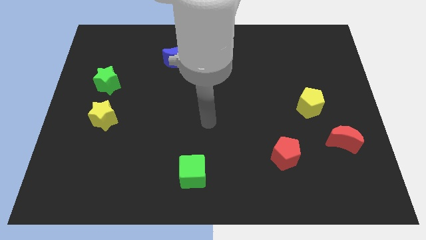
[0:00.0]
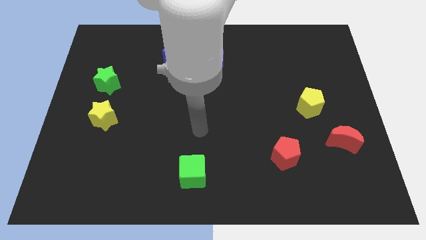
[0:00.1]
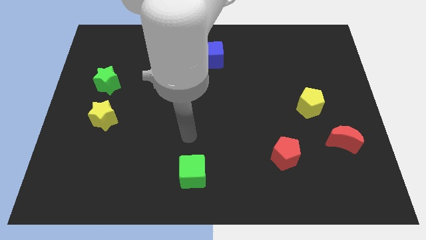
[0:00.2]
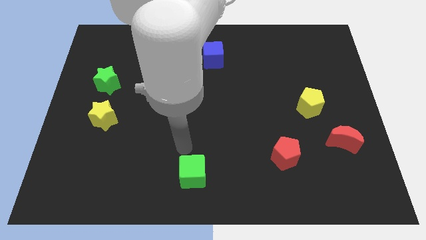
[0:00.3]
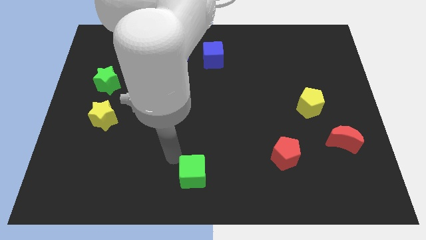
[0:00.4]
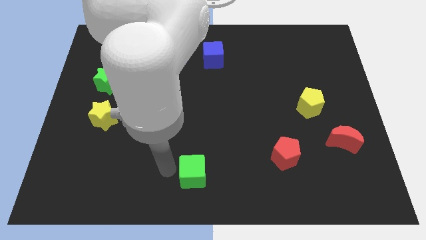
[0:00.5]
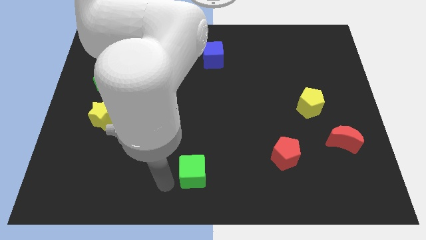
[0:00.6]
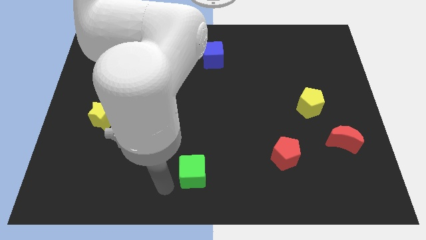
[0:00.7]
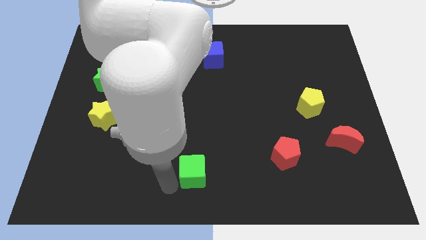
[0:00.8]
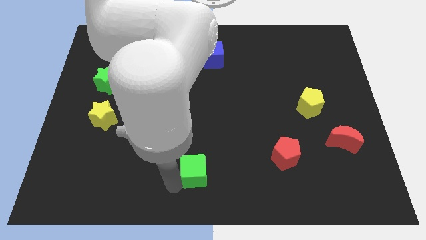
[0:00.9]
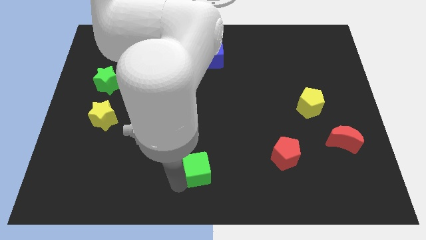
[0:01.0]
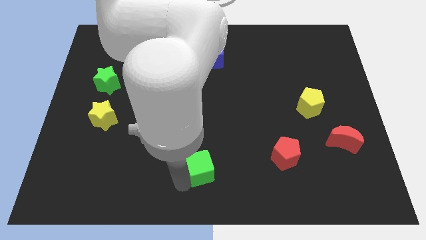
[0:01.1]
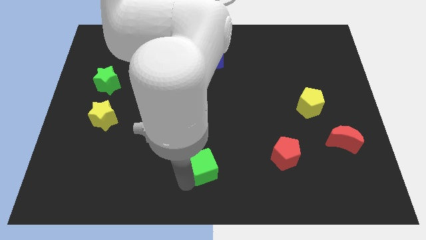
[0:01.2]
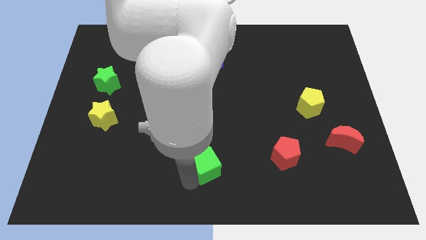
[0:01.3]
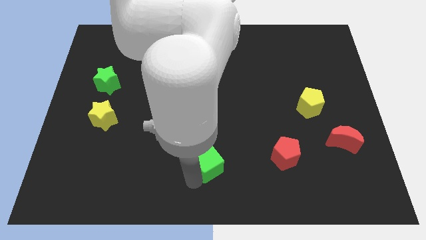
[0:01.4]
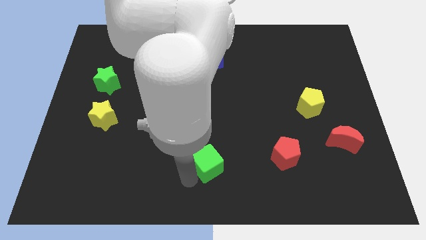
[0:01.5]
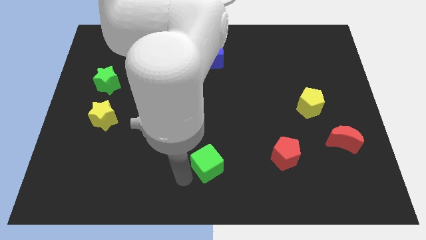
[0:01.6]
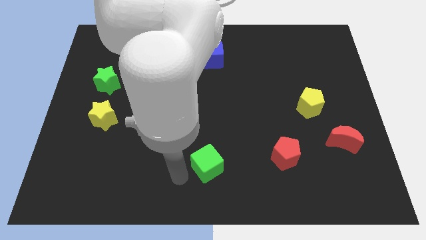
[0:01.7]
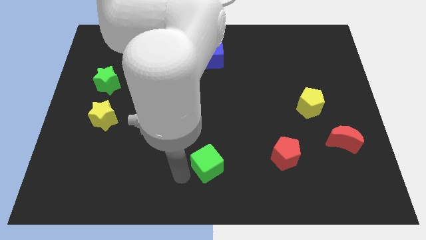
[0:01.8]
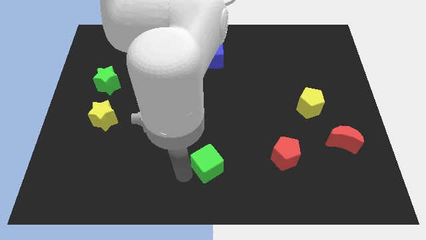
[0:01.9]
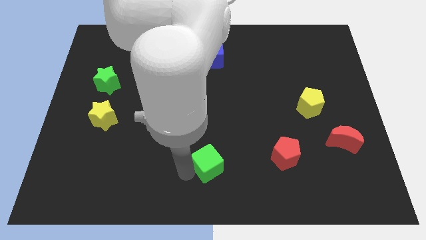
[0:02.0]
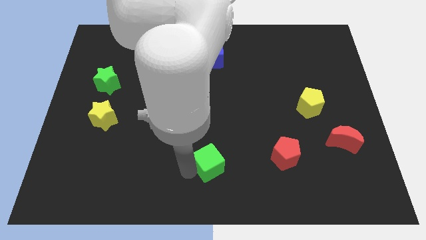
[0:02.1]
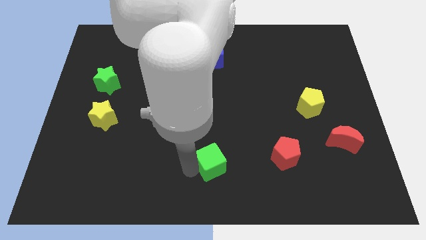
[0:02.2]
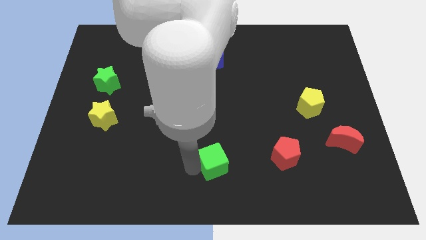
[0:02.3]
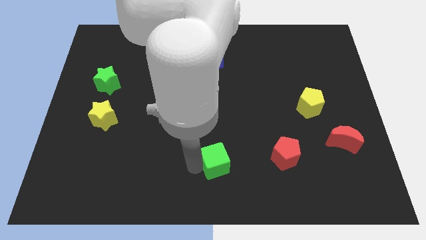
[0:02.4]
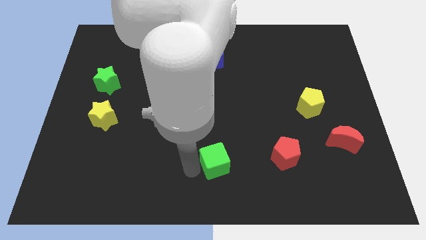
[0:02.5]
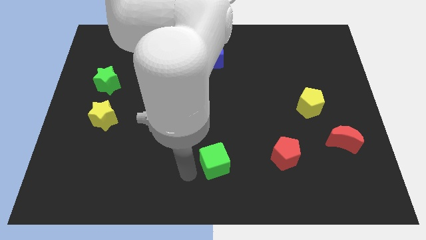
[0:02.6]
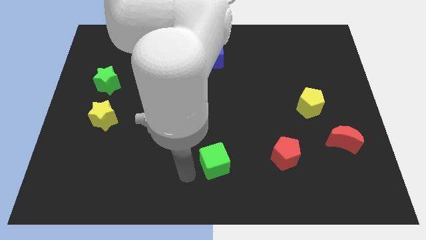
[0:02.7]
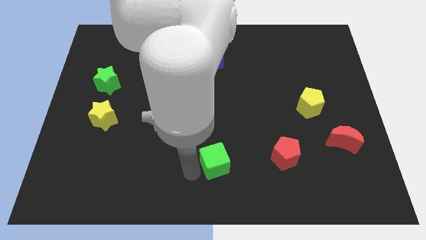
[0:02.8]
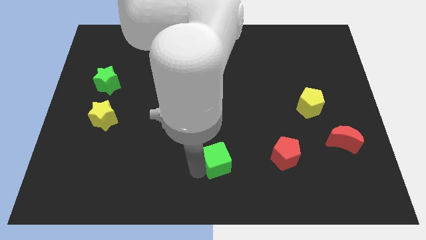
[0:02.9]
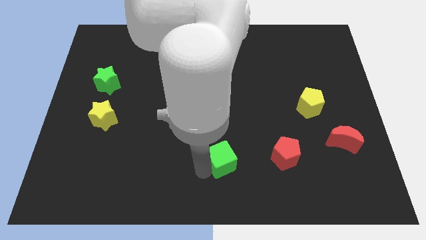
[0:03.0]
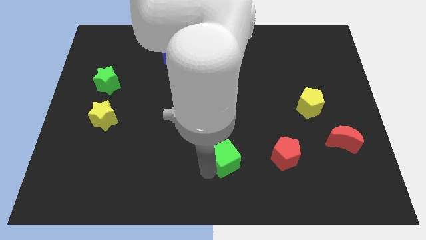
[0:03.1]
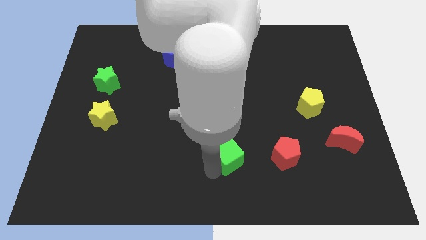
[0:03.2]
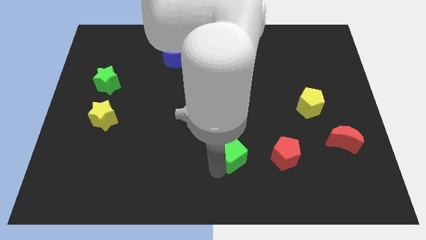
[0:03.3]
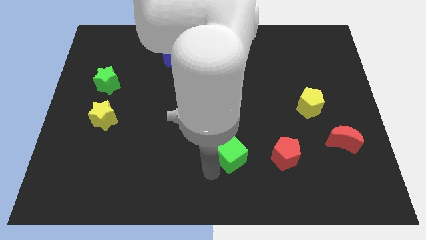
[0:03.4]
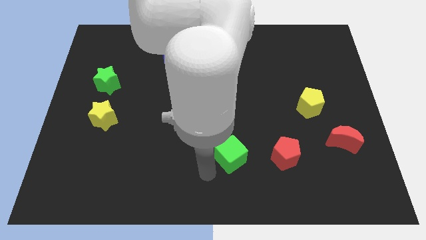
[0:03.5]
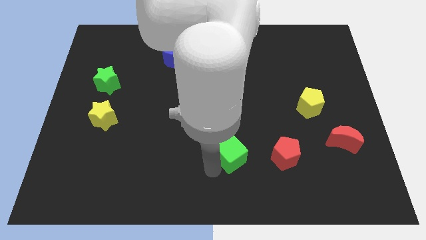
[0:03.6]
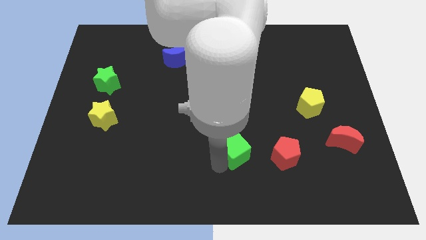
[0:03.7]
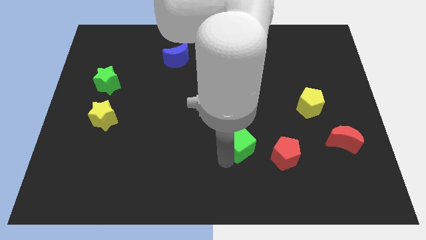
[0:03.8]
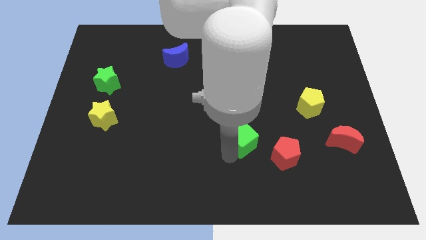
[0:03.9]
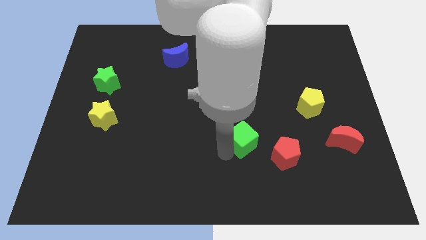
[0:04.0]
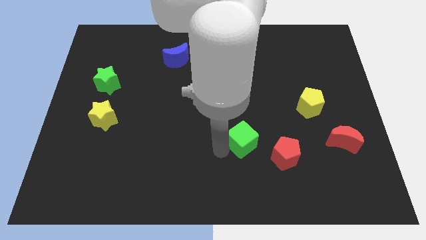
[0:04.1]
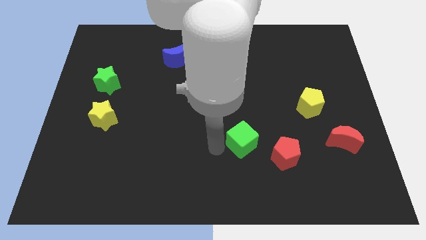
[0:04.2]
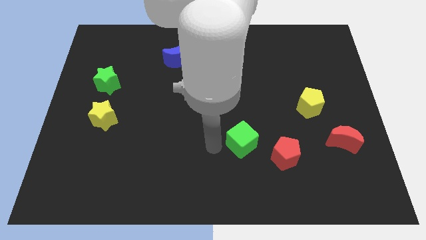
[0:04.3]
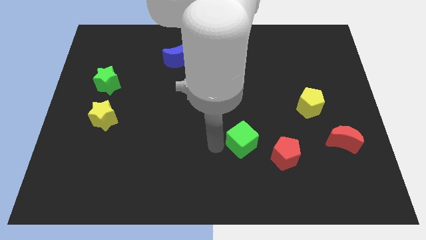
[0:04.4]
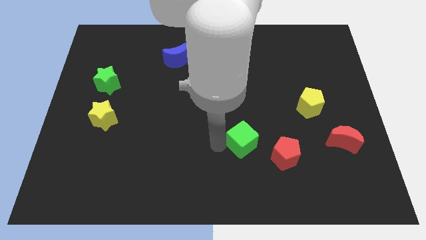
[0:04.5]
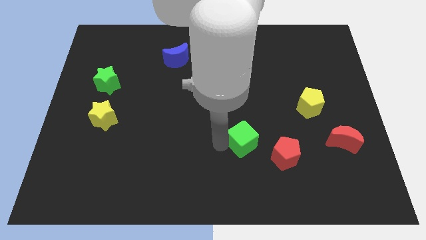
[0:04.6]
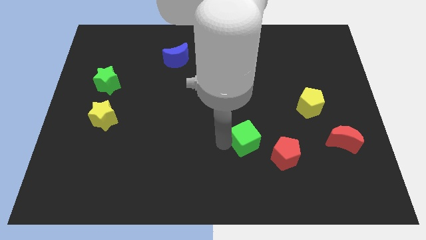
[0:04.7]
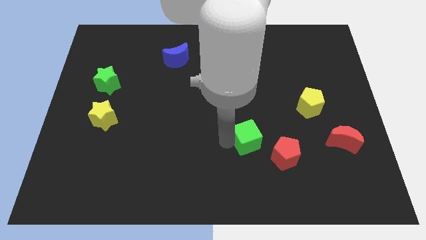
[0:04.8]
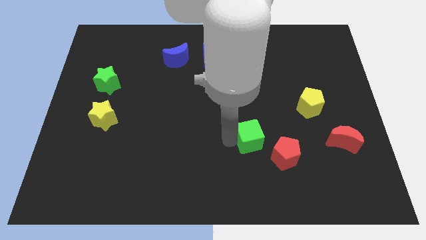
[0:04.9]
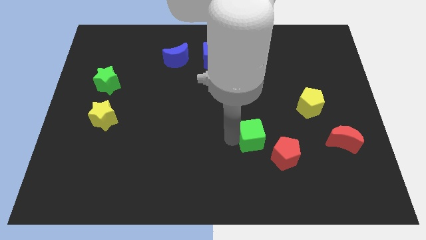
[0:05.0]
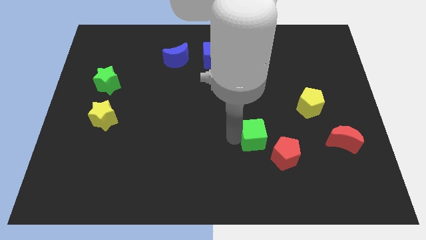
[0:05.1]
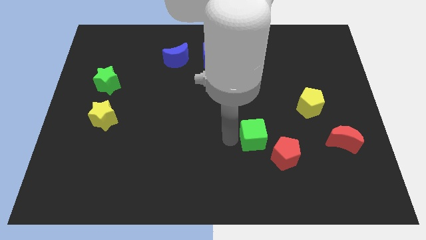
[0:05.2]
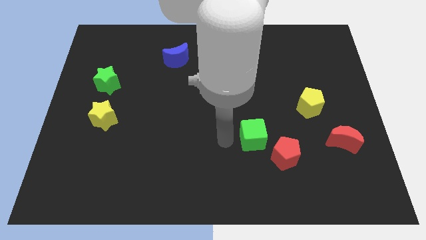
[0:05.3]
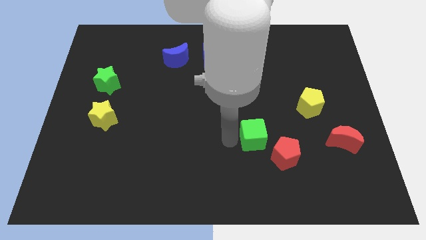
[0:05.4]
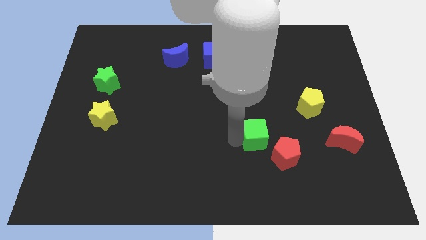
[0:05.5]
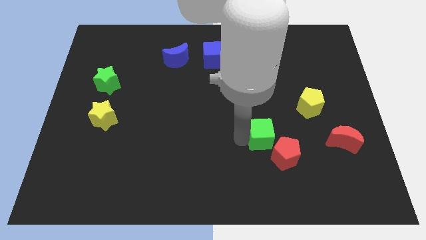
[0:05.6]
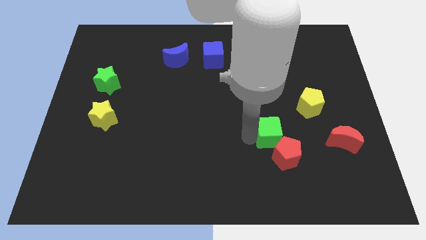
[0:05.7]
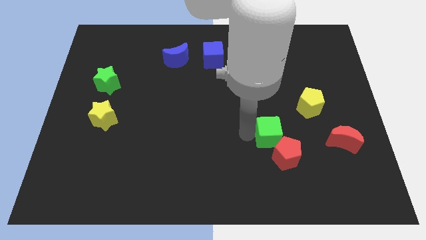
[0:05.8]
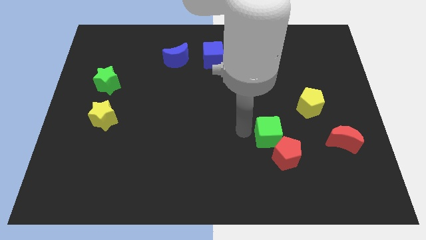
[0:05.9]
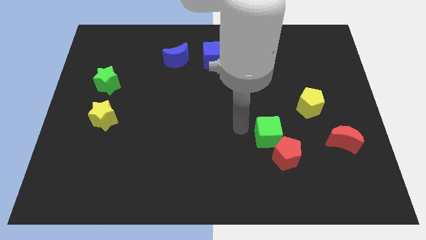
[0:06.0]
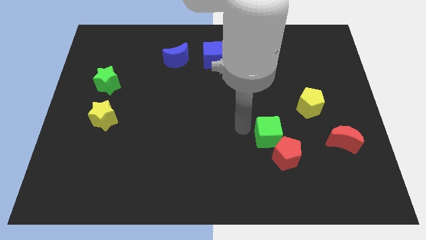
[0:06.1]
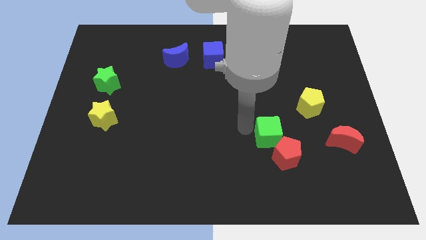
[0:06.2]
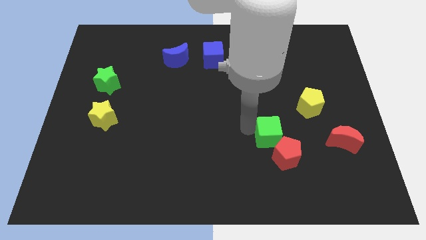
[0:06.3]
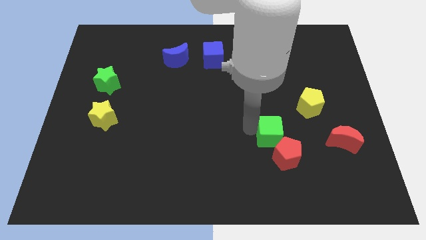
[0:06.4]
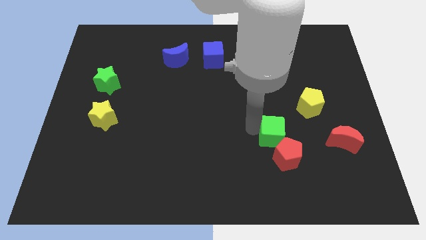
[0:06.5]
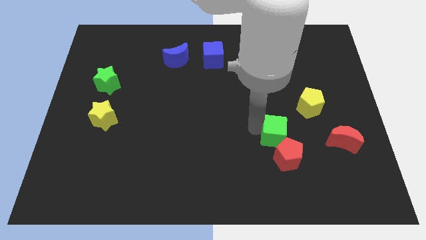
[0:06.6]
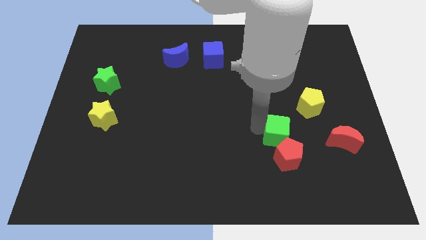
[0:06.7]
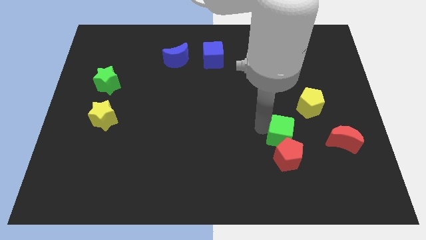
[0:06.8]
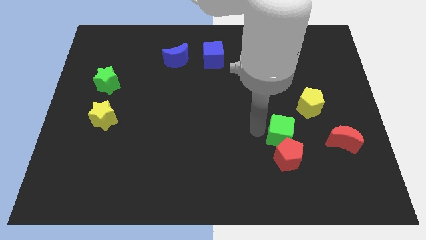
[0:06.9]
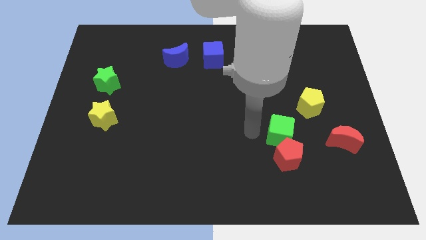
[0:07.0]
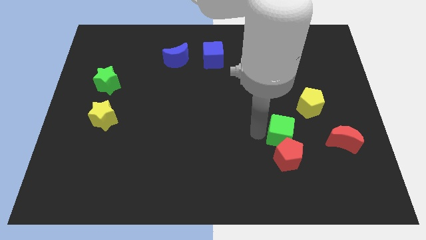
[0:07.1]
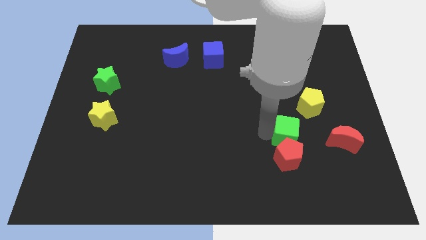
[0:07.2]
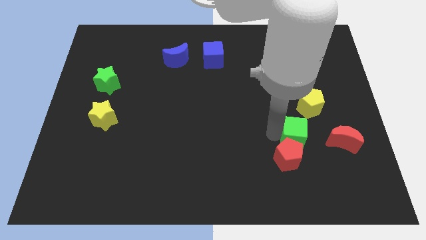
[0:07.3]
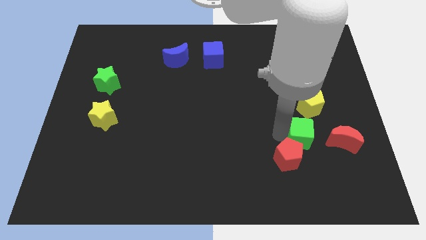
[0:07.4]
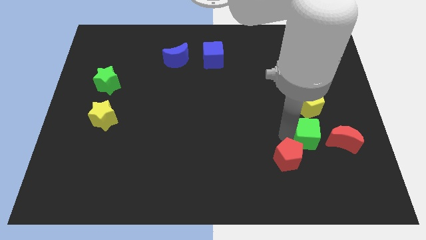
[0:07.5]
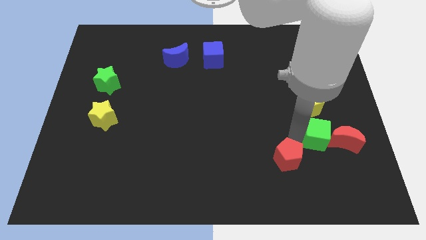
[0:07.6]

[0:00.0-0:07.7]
slide the green cube to the red moon
